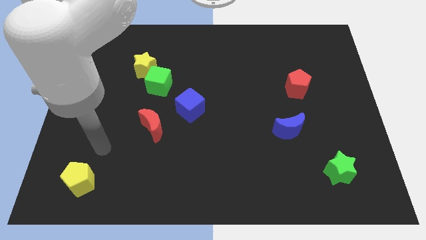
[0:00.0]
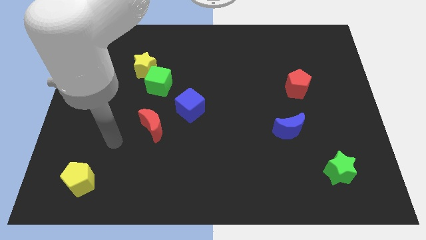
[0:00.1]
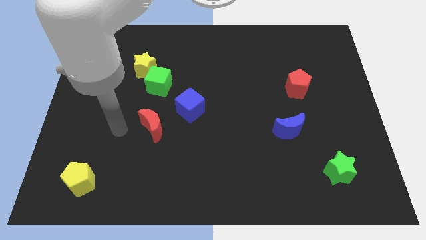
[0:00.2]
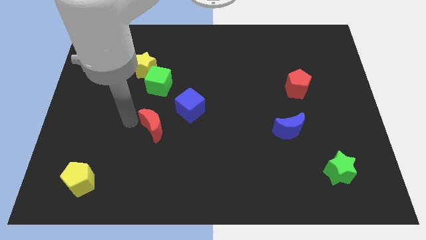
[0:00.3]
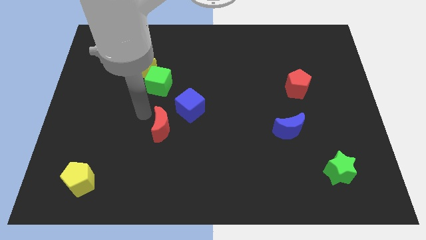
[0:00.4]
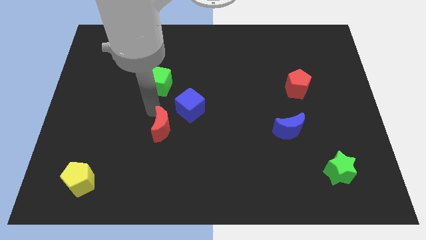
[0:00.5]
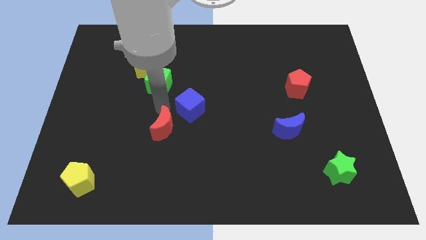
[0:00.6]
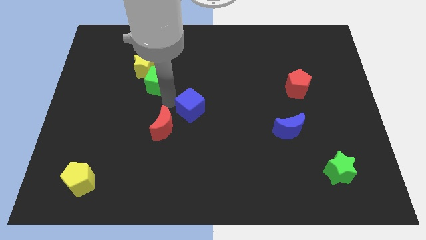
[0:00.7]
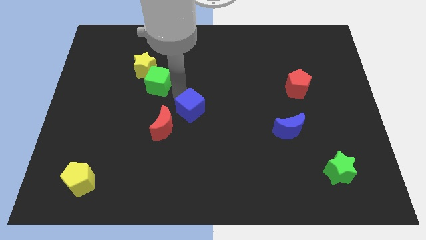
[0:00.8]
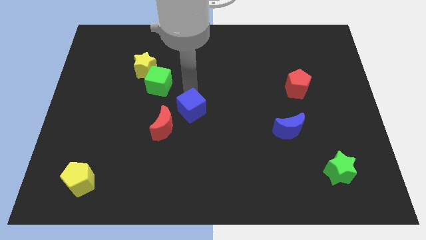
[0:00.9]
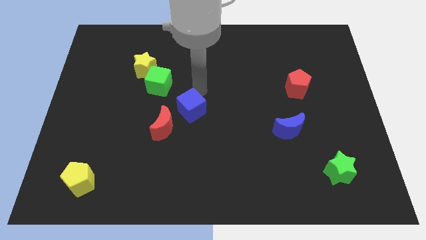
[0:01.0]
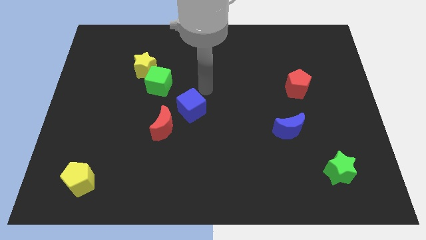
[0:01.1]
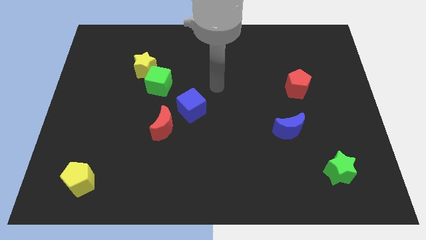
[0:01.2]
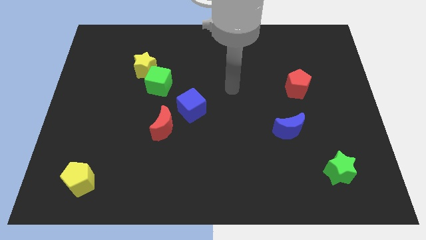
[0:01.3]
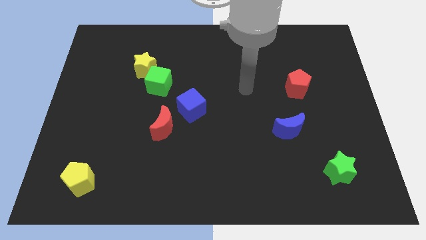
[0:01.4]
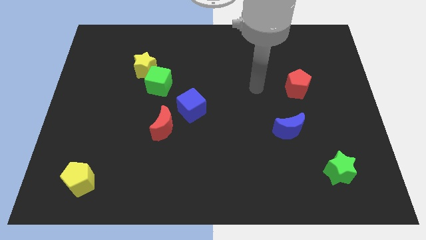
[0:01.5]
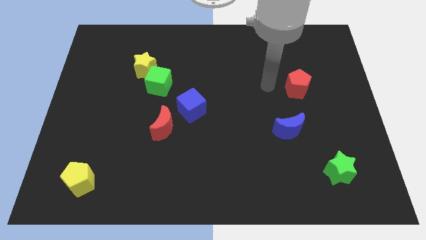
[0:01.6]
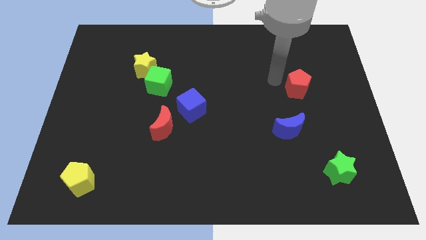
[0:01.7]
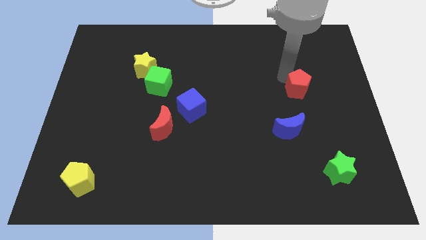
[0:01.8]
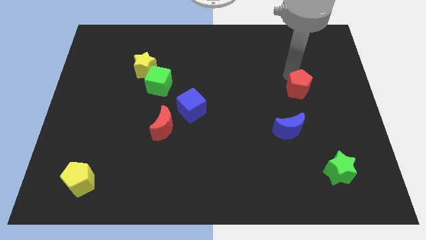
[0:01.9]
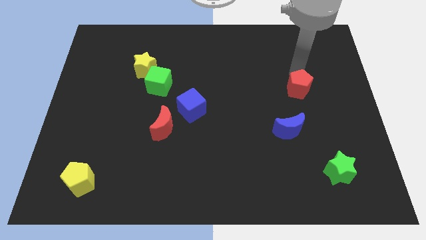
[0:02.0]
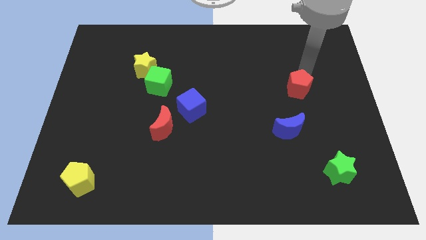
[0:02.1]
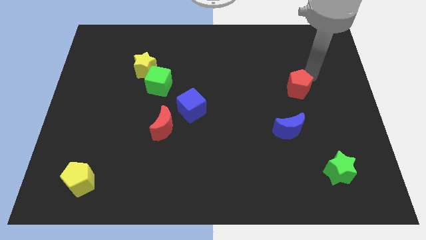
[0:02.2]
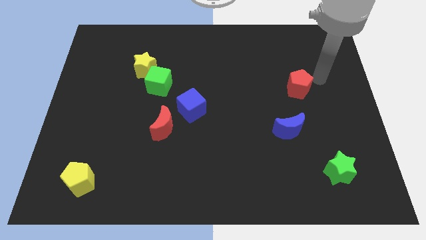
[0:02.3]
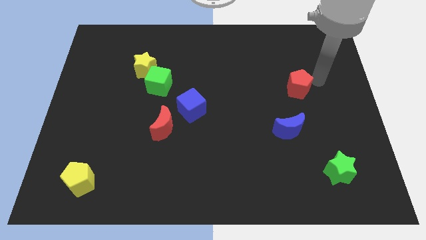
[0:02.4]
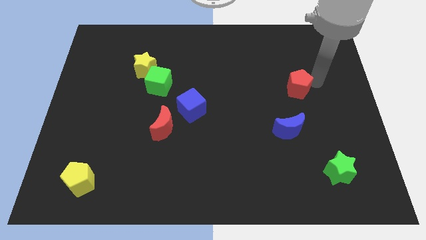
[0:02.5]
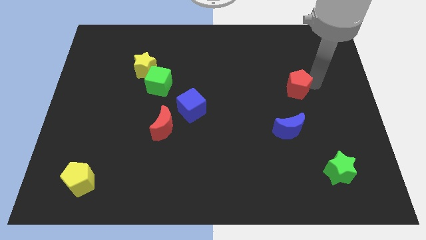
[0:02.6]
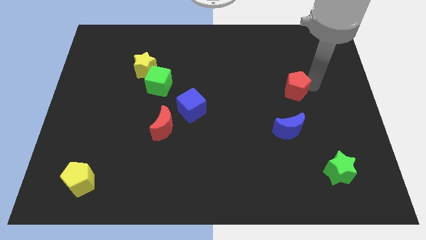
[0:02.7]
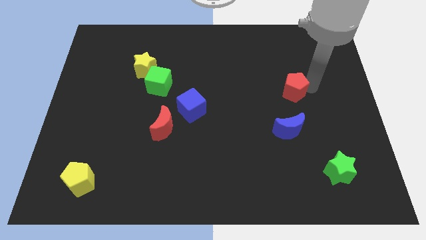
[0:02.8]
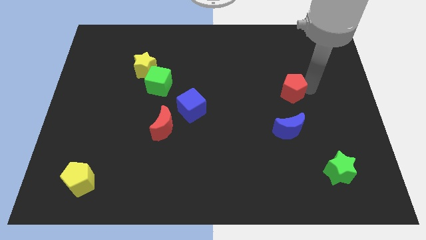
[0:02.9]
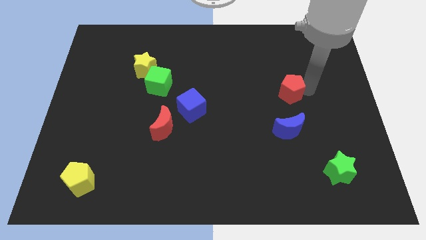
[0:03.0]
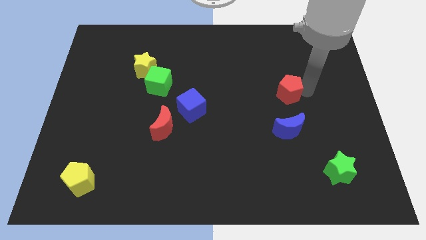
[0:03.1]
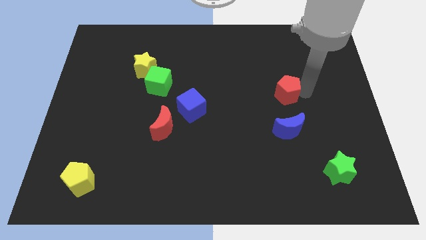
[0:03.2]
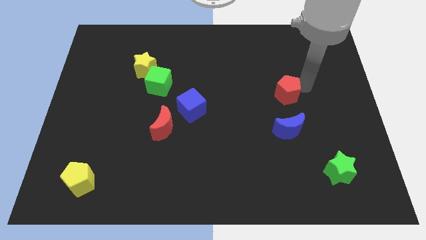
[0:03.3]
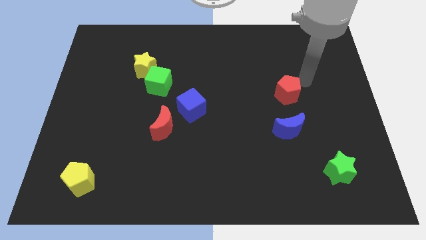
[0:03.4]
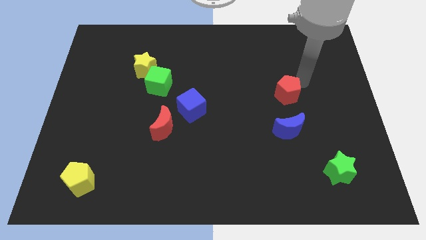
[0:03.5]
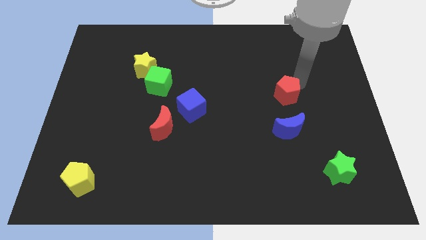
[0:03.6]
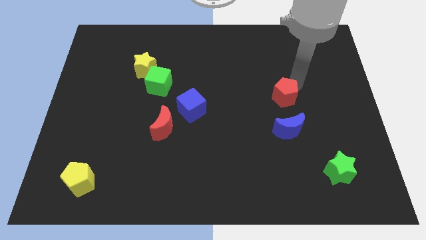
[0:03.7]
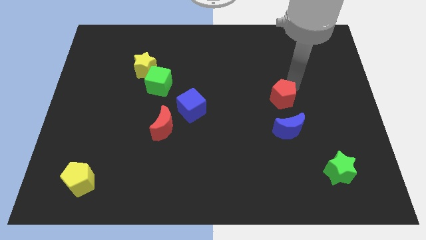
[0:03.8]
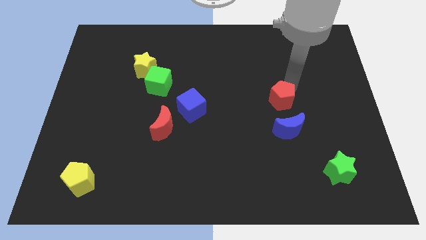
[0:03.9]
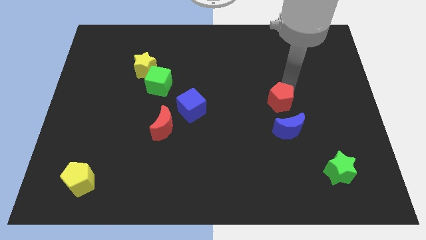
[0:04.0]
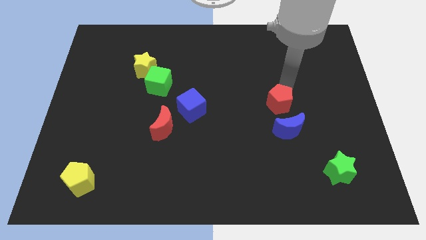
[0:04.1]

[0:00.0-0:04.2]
slide the red pentagon a little downwards and left diagonally

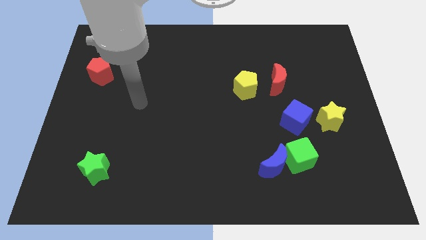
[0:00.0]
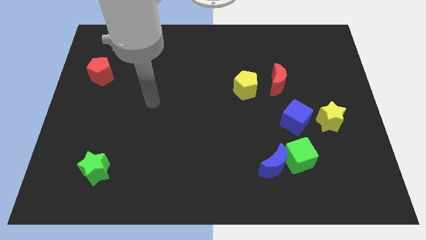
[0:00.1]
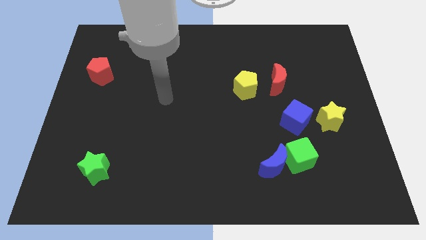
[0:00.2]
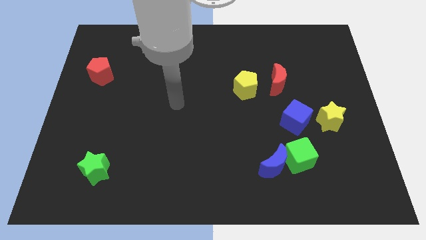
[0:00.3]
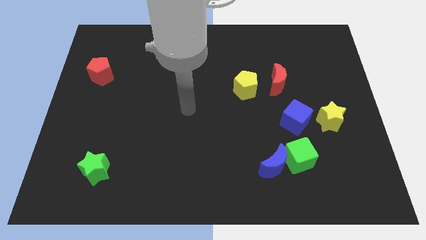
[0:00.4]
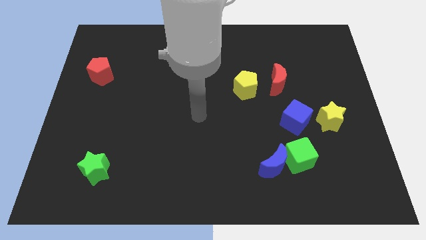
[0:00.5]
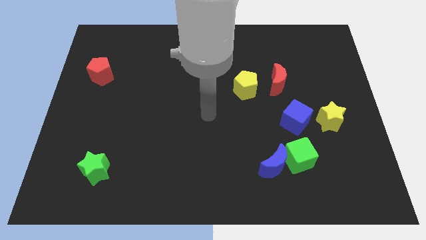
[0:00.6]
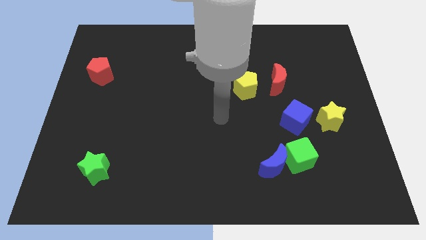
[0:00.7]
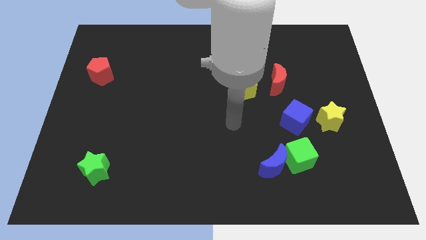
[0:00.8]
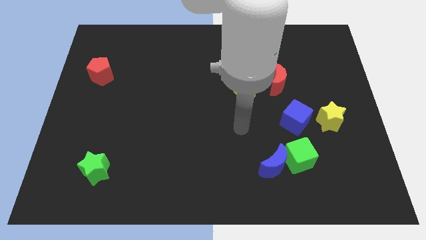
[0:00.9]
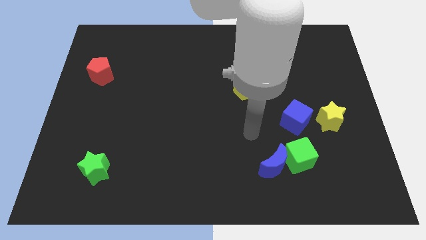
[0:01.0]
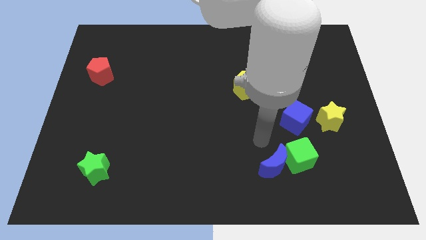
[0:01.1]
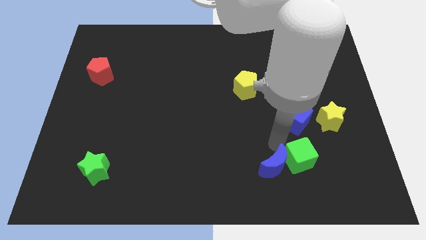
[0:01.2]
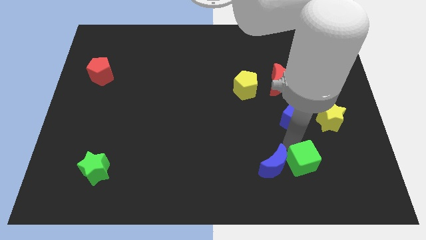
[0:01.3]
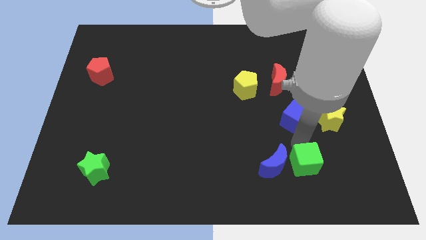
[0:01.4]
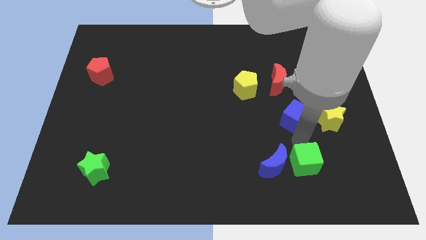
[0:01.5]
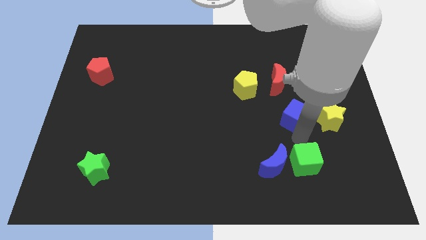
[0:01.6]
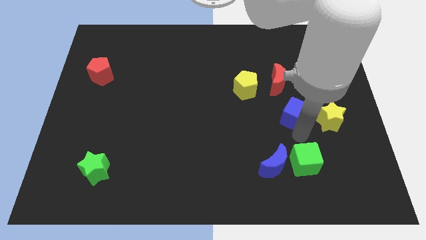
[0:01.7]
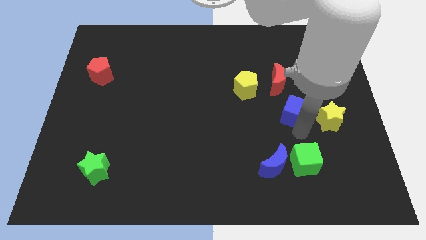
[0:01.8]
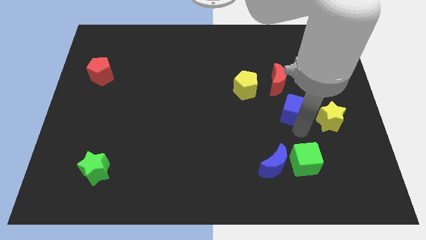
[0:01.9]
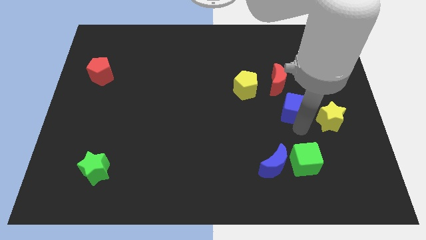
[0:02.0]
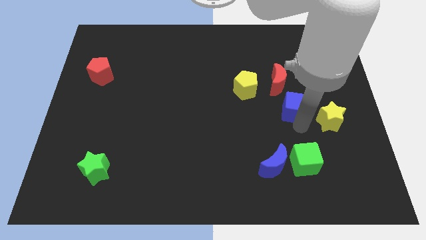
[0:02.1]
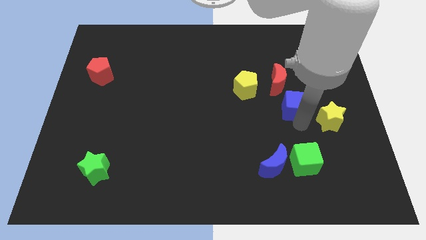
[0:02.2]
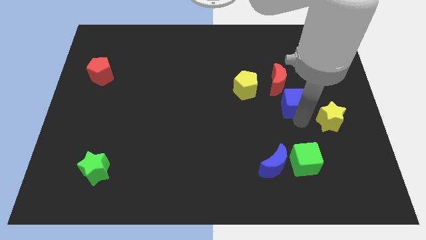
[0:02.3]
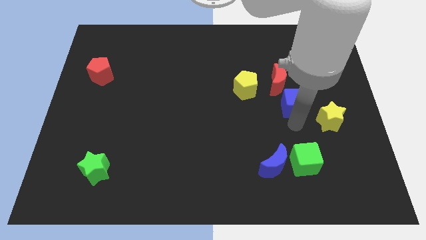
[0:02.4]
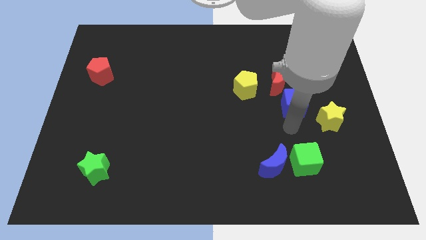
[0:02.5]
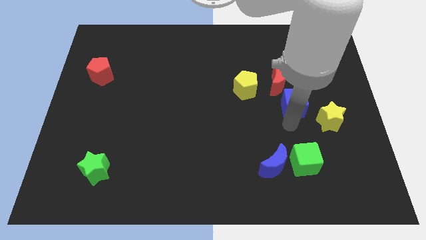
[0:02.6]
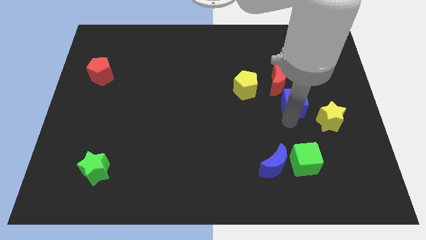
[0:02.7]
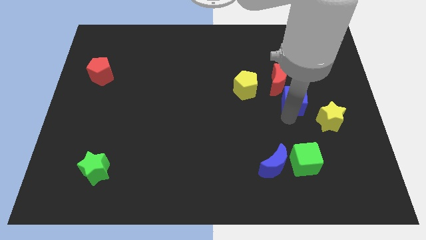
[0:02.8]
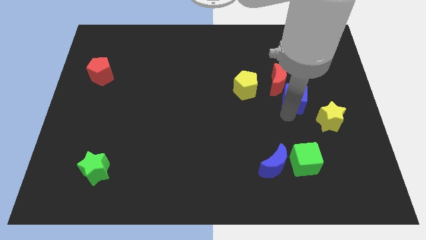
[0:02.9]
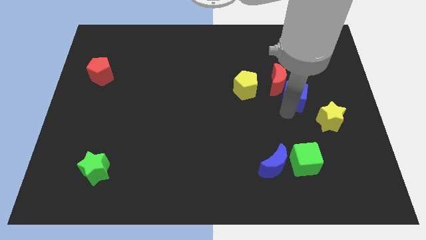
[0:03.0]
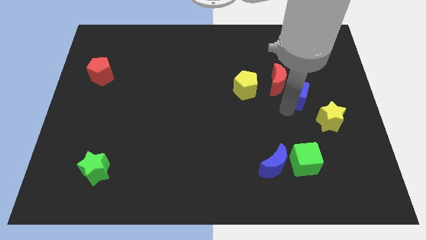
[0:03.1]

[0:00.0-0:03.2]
push the blue cube a little bit up

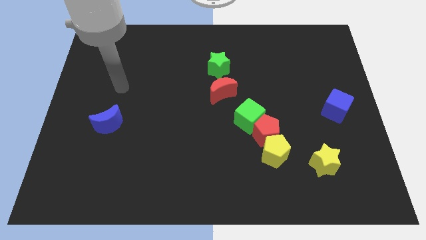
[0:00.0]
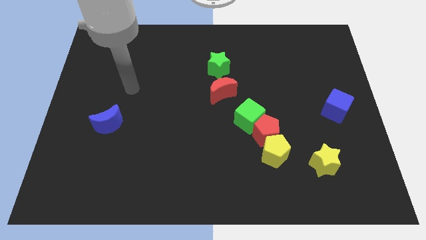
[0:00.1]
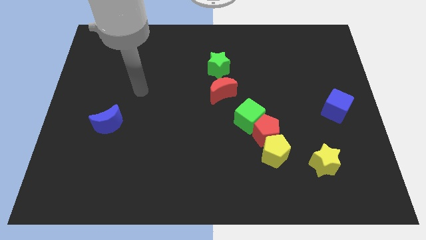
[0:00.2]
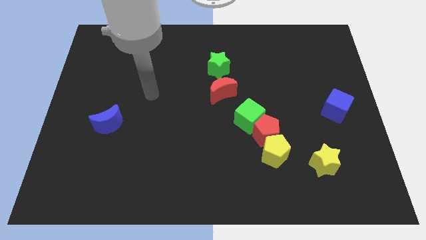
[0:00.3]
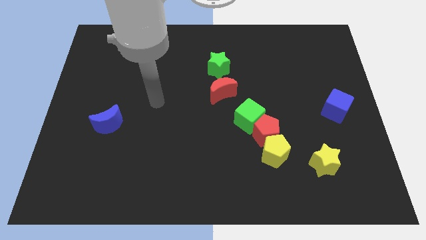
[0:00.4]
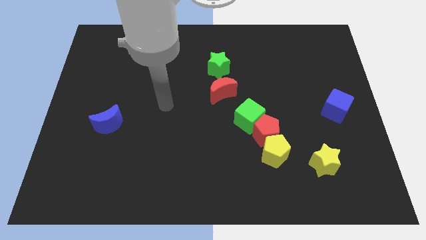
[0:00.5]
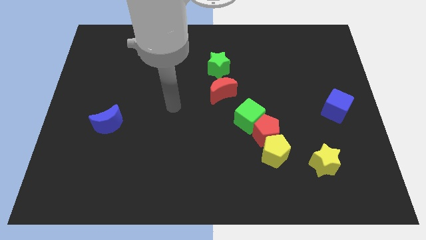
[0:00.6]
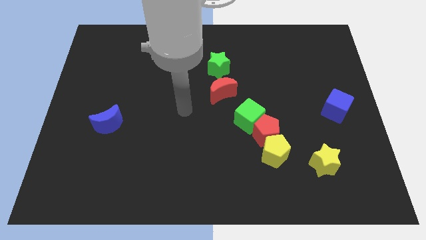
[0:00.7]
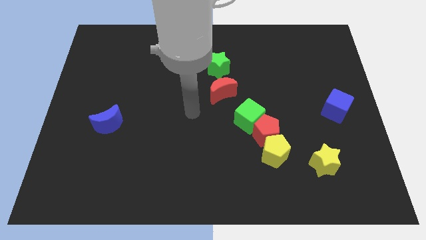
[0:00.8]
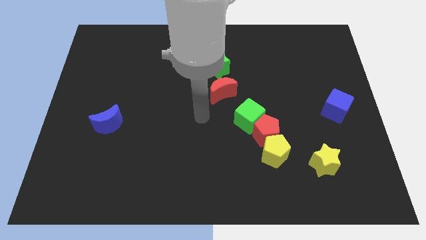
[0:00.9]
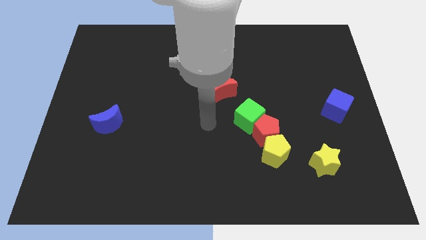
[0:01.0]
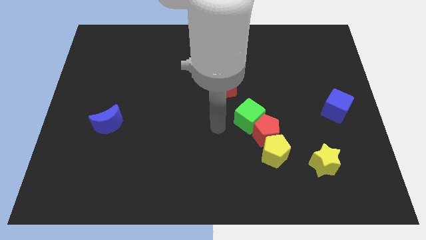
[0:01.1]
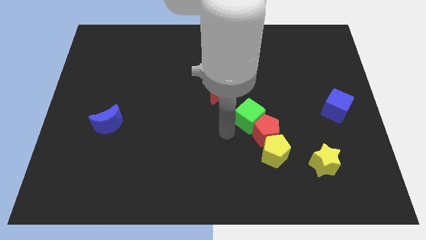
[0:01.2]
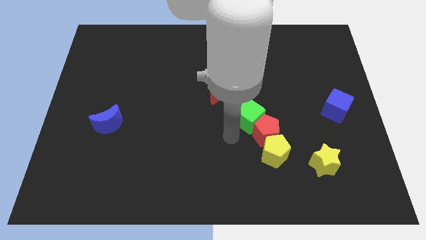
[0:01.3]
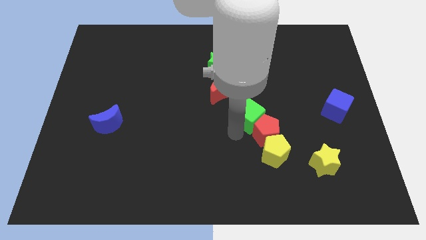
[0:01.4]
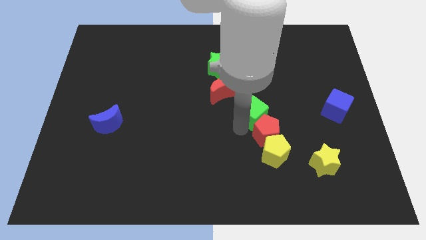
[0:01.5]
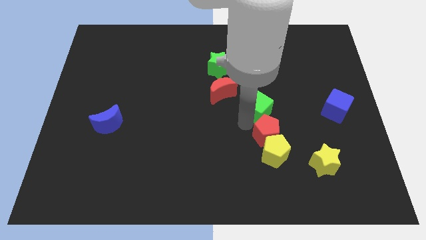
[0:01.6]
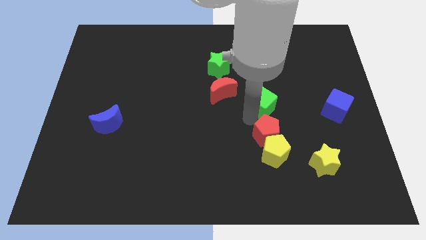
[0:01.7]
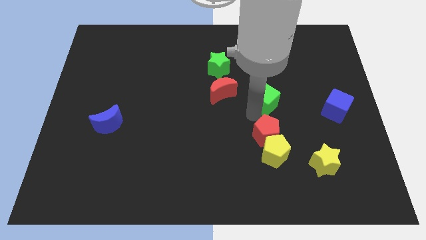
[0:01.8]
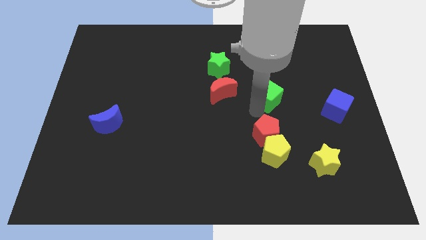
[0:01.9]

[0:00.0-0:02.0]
slightly move the green cube diagonally up and right
